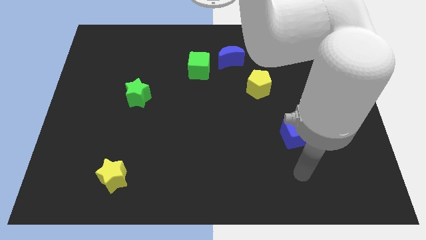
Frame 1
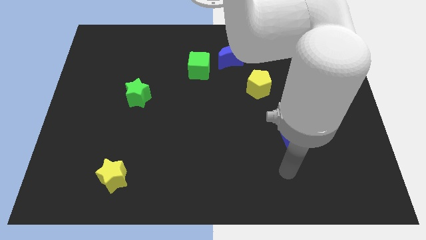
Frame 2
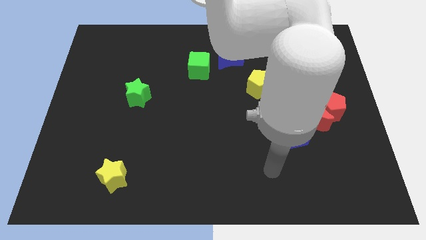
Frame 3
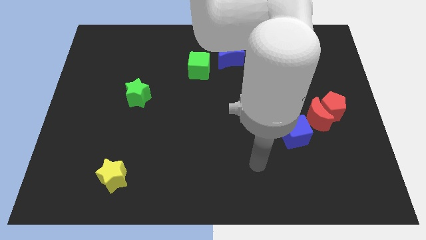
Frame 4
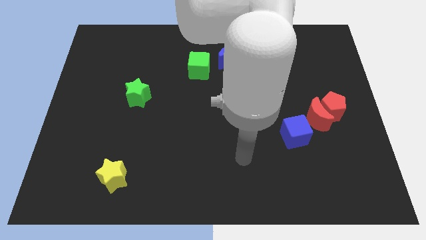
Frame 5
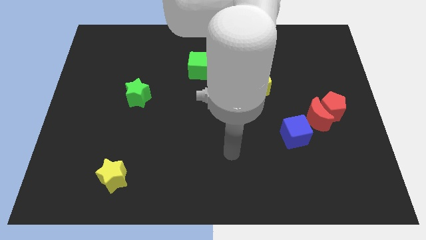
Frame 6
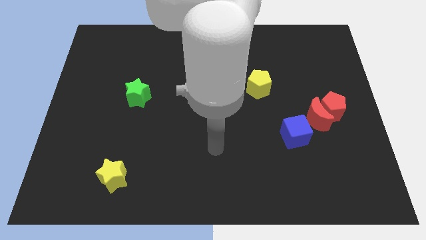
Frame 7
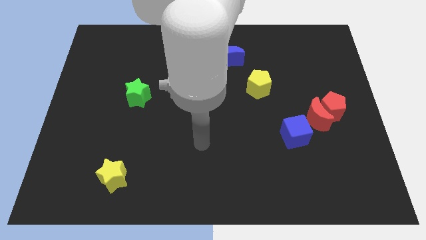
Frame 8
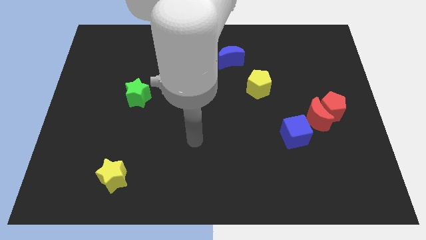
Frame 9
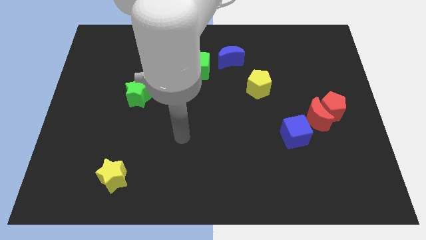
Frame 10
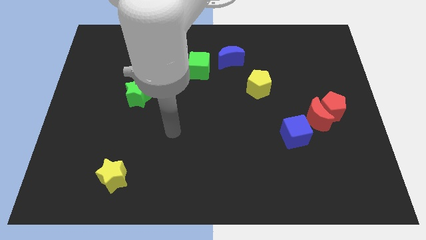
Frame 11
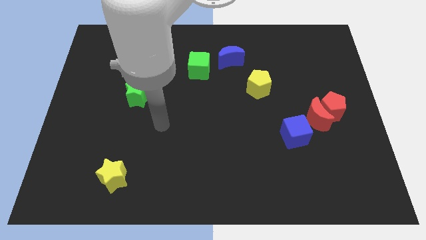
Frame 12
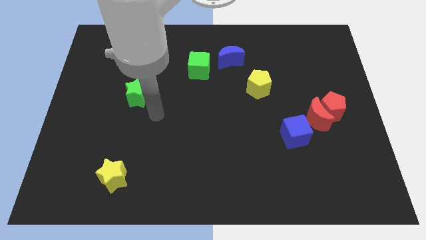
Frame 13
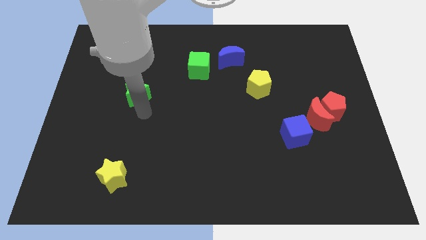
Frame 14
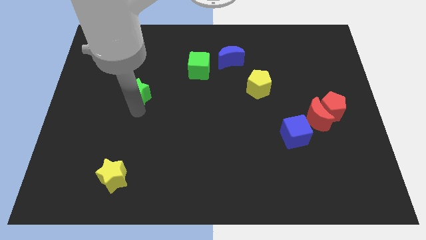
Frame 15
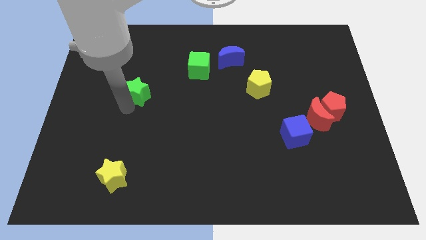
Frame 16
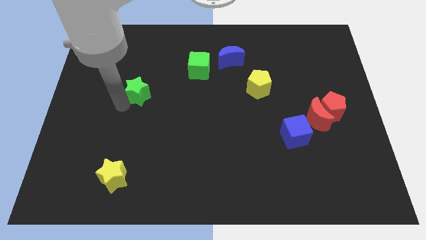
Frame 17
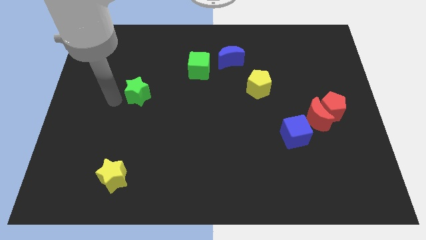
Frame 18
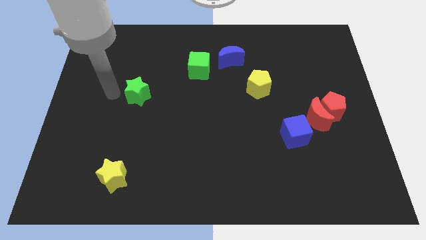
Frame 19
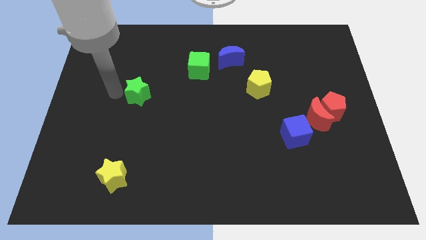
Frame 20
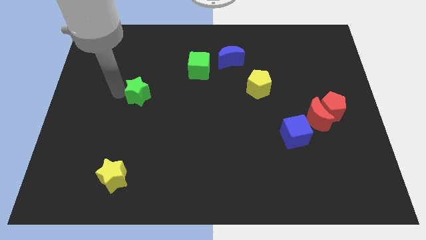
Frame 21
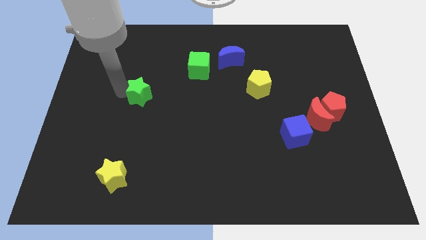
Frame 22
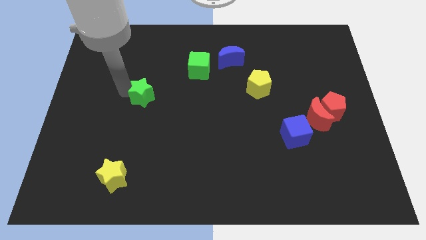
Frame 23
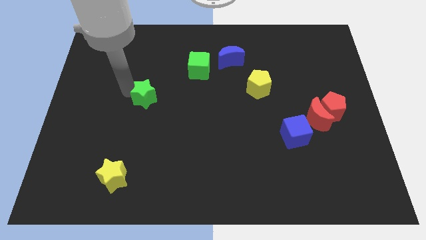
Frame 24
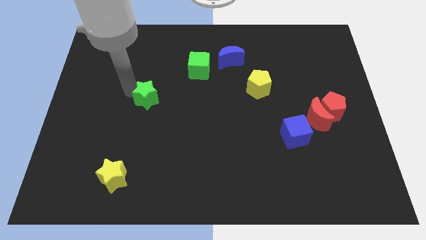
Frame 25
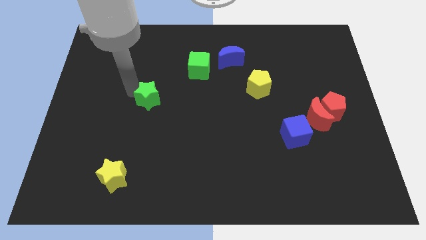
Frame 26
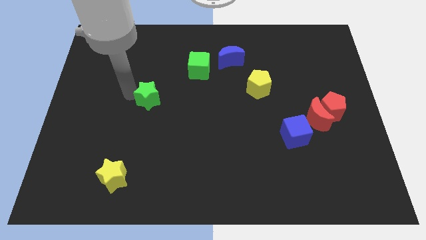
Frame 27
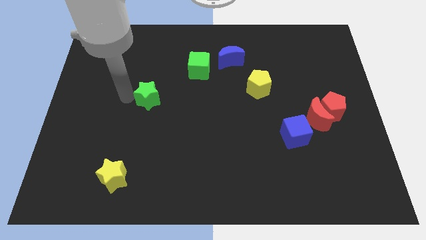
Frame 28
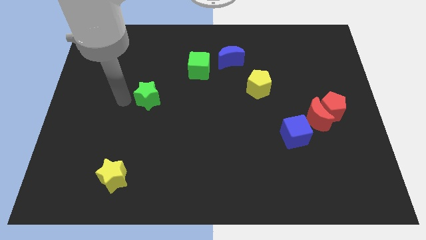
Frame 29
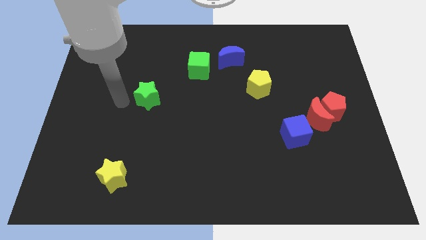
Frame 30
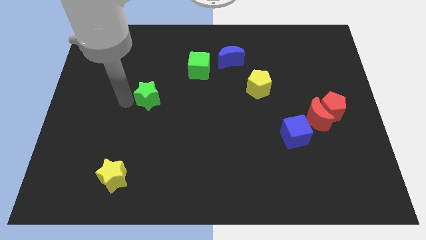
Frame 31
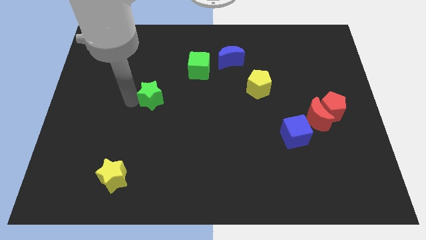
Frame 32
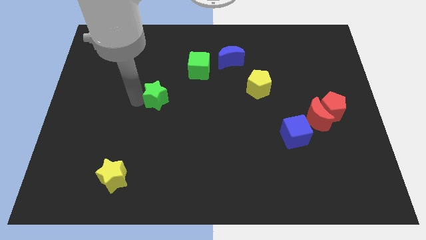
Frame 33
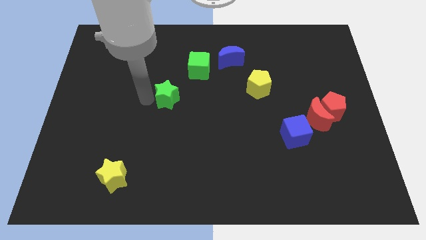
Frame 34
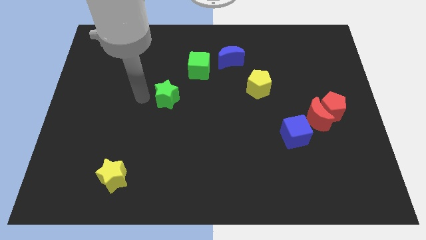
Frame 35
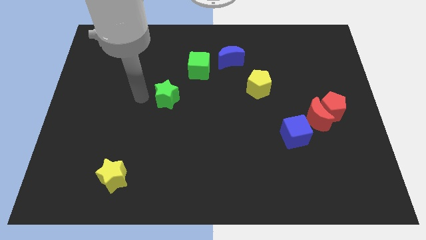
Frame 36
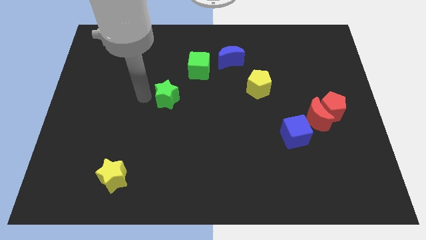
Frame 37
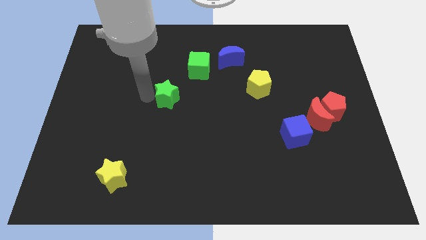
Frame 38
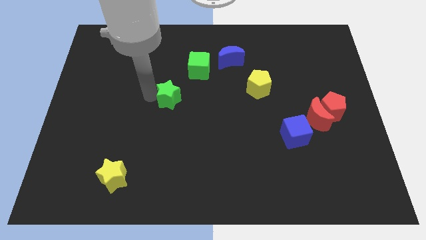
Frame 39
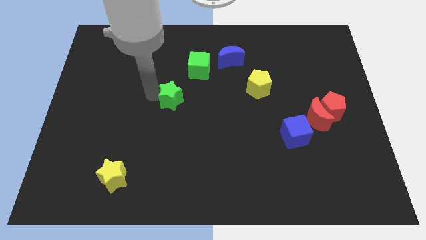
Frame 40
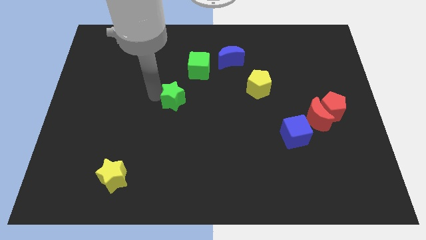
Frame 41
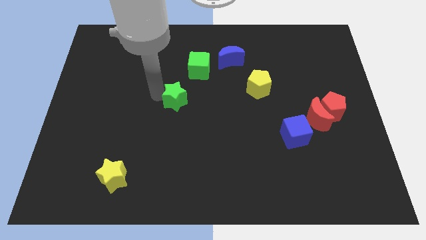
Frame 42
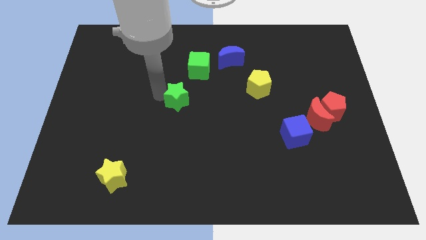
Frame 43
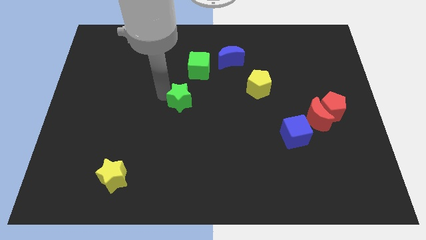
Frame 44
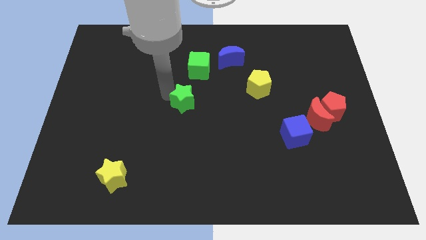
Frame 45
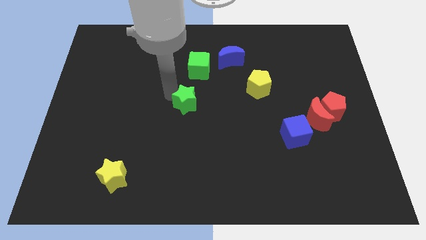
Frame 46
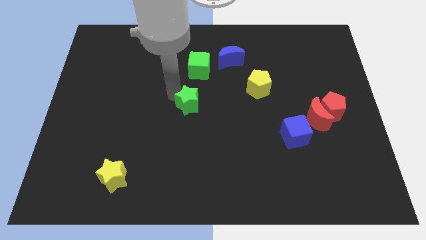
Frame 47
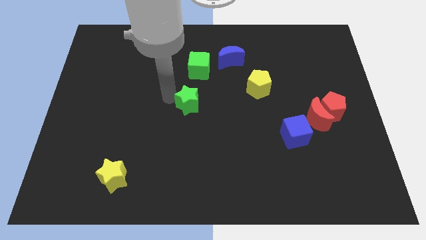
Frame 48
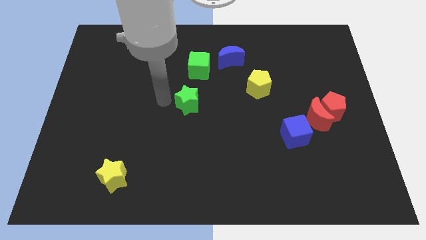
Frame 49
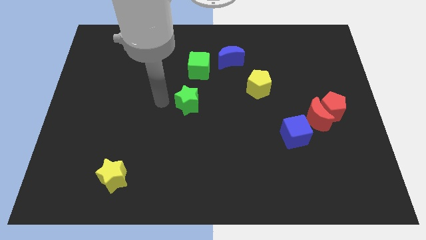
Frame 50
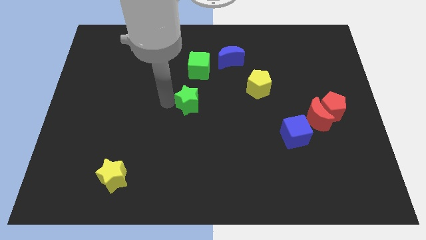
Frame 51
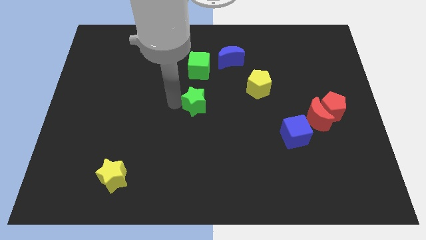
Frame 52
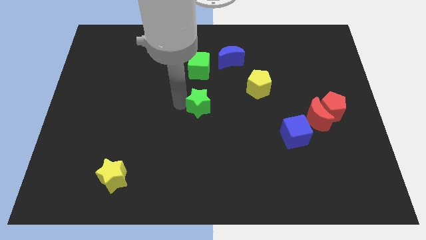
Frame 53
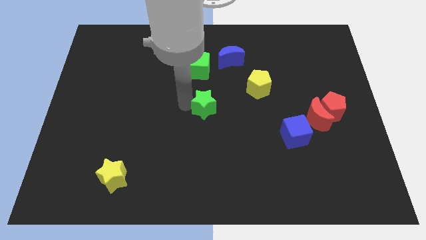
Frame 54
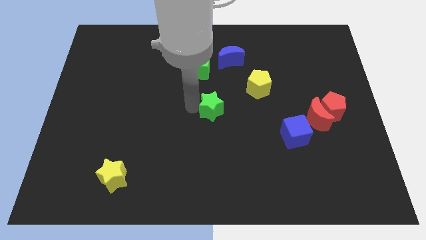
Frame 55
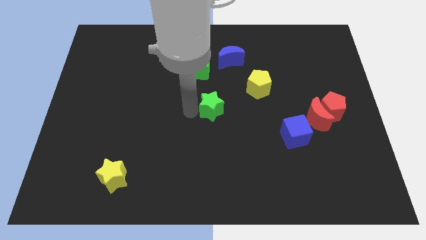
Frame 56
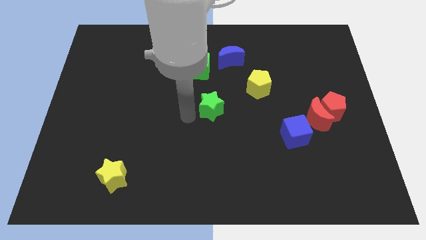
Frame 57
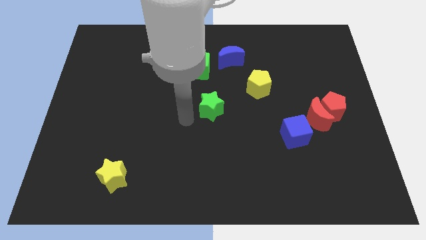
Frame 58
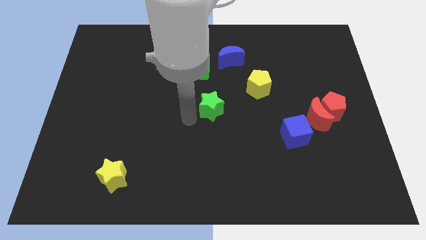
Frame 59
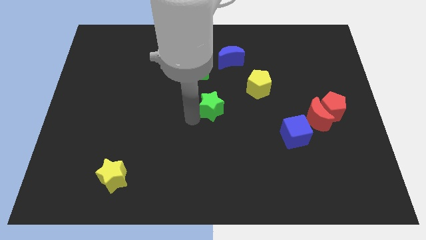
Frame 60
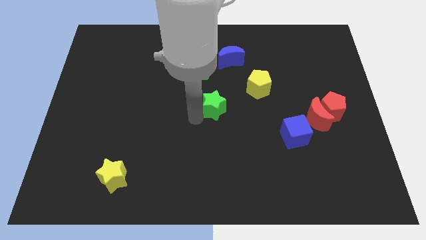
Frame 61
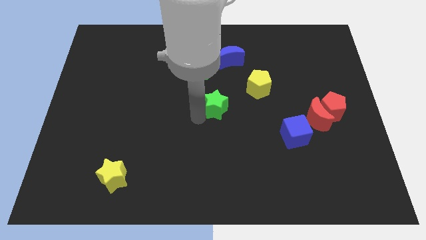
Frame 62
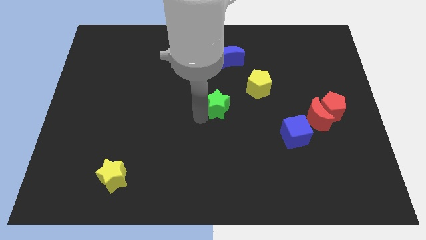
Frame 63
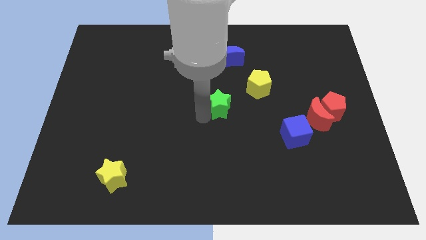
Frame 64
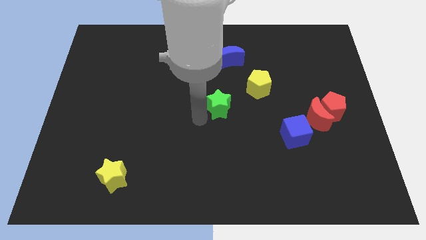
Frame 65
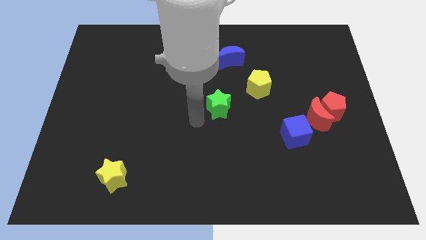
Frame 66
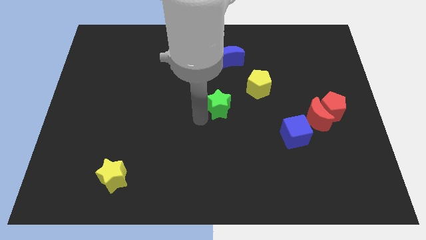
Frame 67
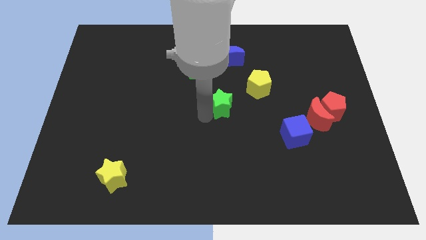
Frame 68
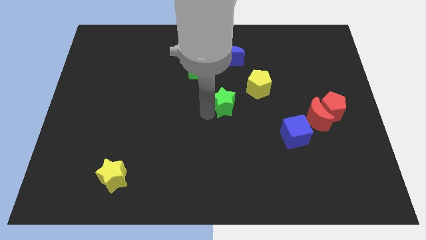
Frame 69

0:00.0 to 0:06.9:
slide the green star right

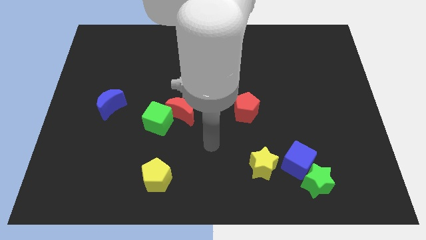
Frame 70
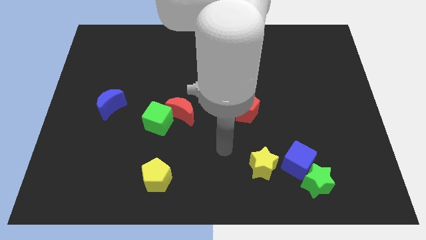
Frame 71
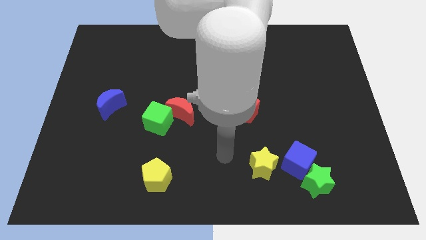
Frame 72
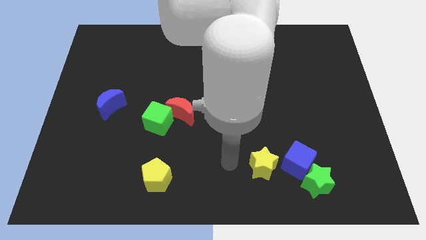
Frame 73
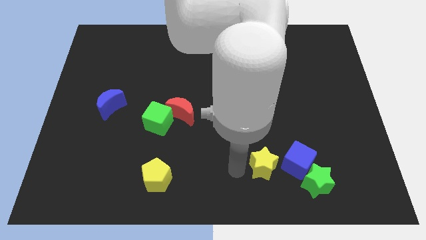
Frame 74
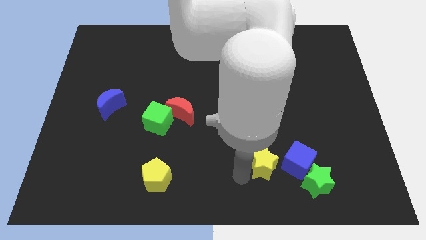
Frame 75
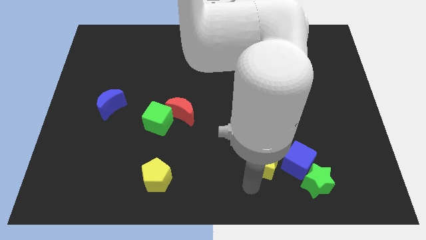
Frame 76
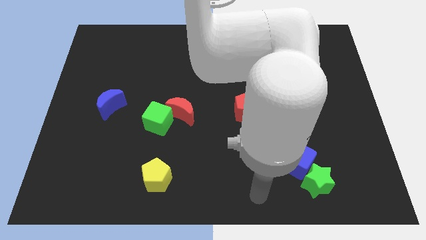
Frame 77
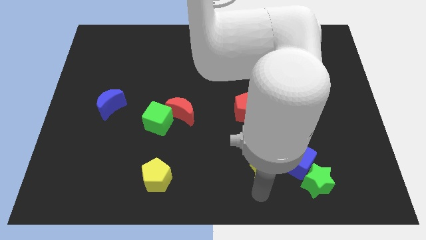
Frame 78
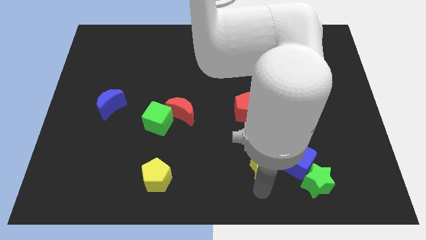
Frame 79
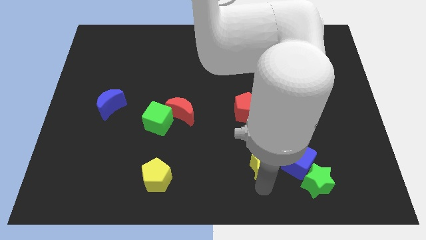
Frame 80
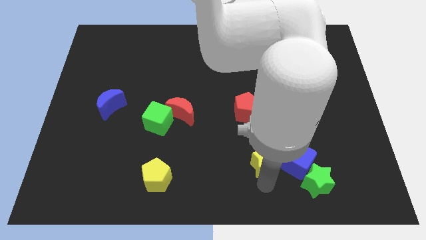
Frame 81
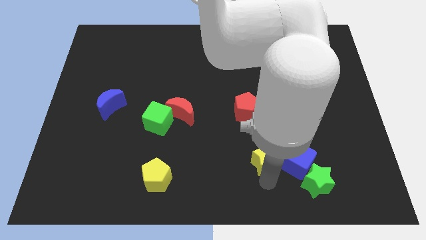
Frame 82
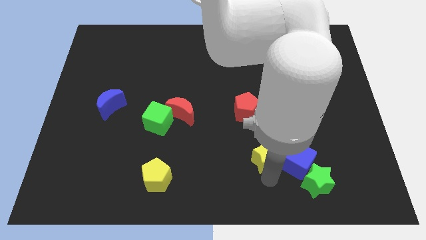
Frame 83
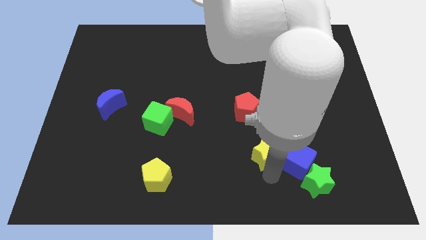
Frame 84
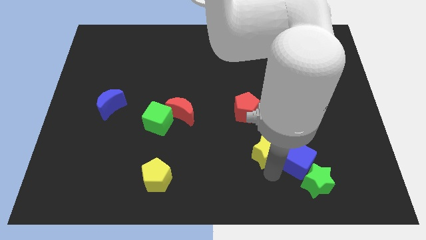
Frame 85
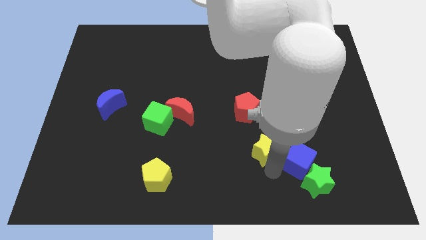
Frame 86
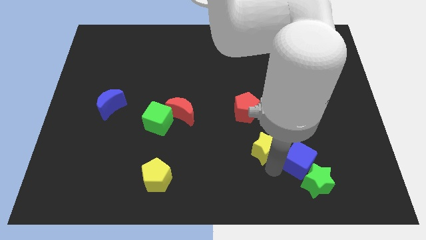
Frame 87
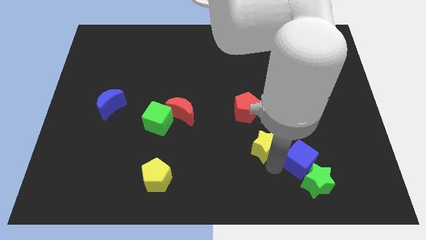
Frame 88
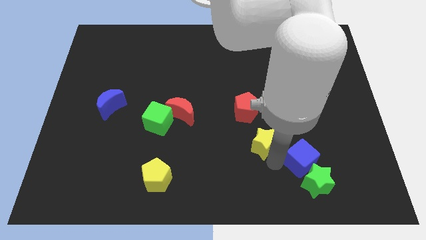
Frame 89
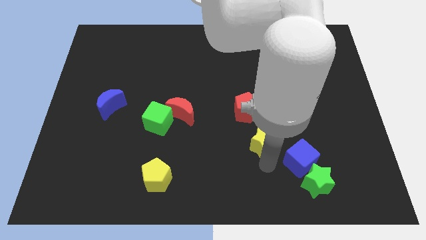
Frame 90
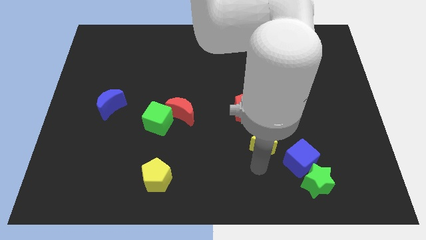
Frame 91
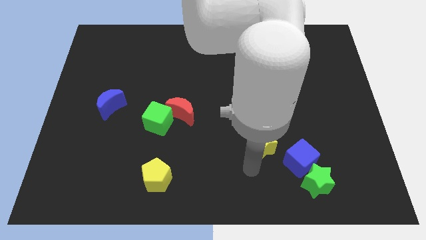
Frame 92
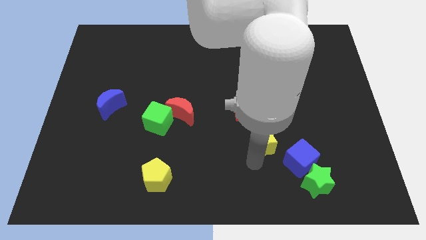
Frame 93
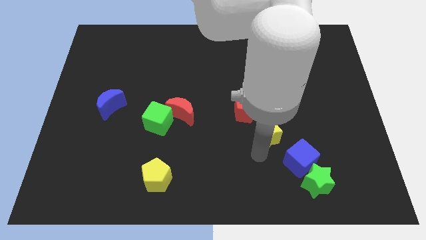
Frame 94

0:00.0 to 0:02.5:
move the yellow star up a bit
